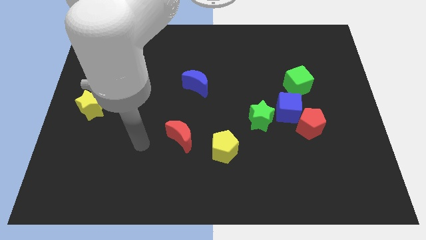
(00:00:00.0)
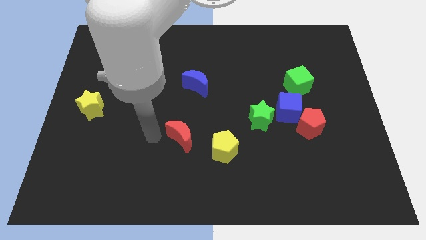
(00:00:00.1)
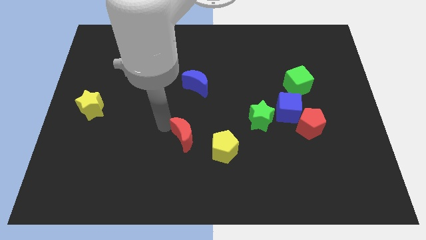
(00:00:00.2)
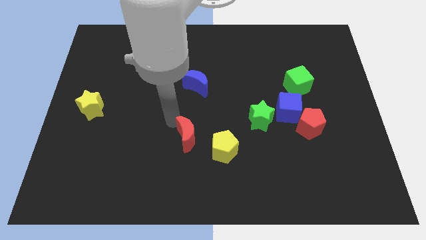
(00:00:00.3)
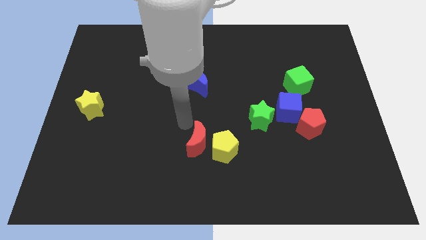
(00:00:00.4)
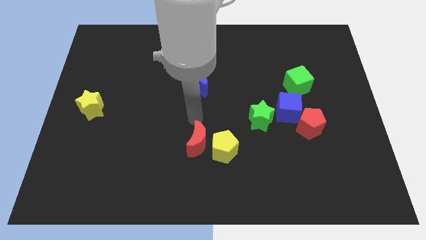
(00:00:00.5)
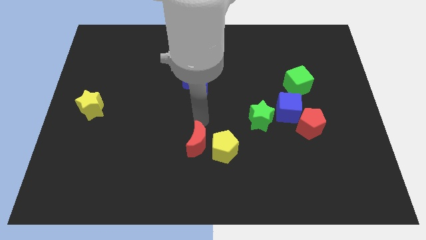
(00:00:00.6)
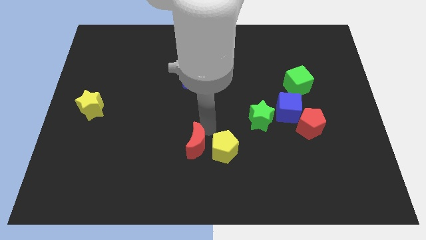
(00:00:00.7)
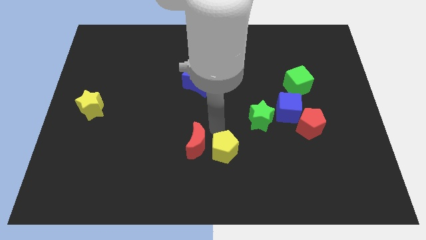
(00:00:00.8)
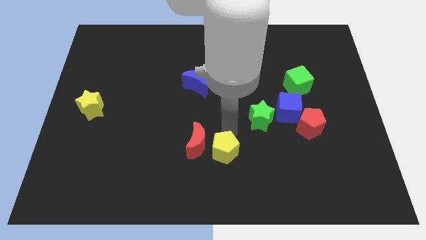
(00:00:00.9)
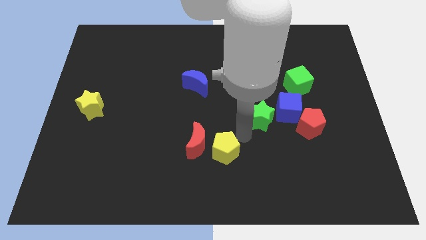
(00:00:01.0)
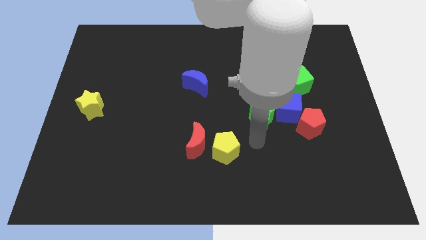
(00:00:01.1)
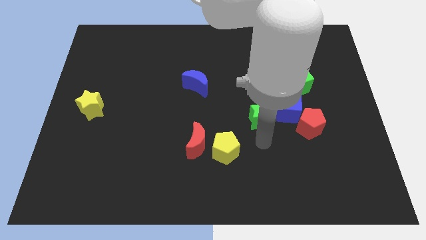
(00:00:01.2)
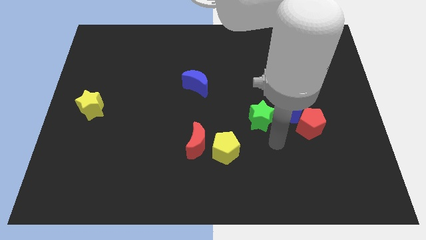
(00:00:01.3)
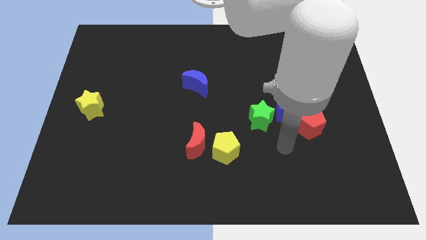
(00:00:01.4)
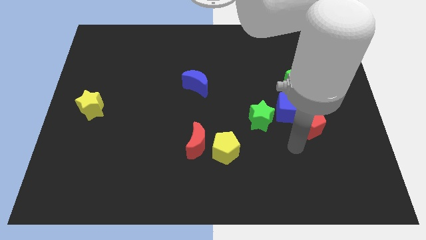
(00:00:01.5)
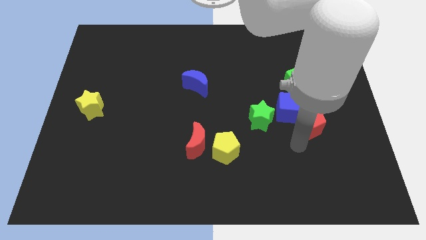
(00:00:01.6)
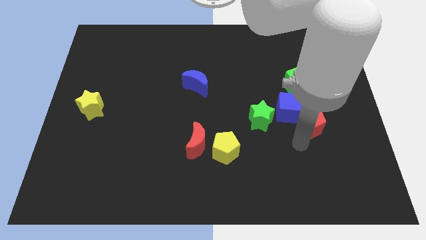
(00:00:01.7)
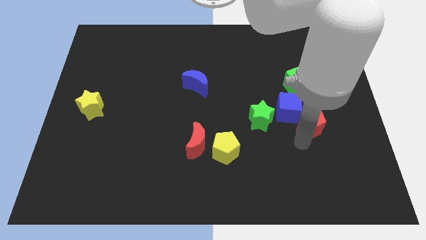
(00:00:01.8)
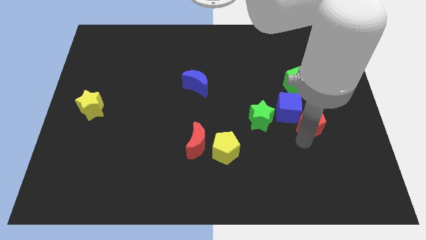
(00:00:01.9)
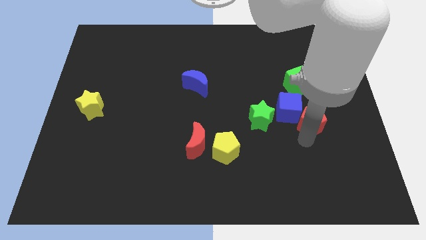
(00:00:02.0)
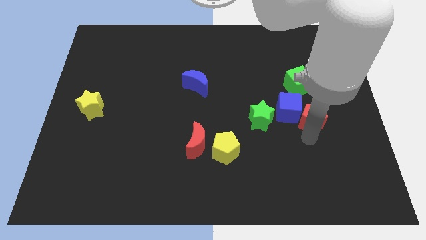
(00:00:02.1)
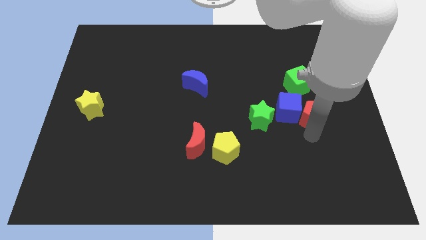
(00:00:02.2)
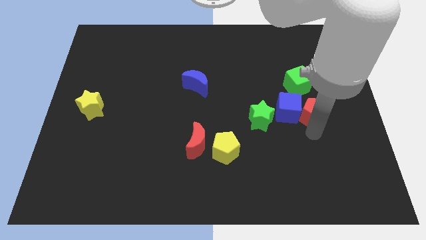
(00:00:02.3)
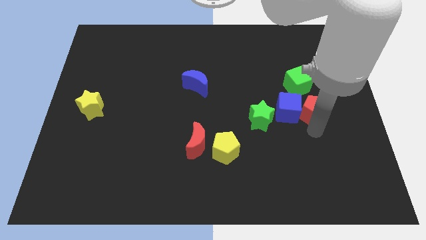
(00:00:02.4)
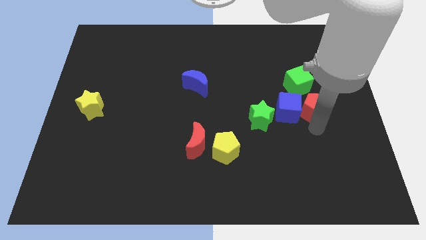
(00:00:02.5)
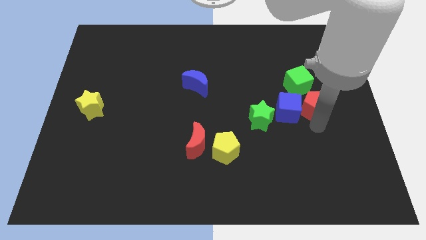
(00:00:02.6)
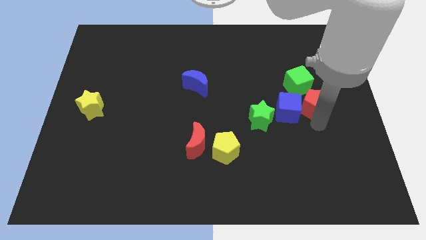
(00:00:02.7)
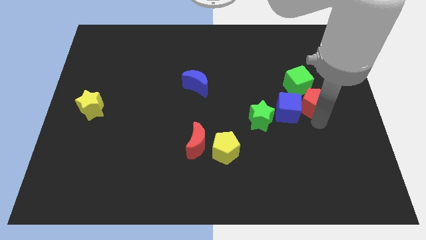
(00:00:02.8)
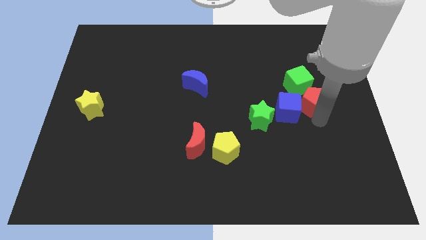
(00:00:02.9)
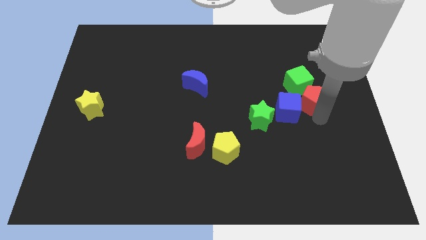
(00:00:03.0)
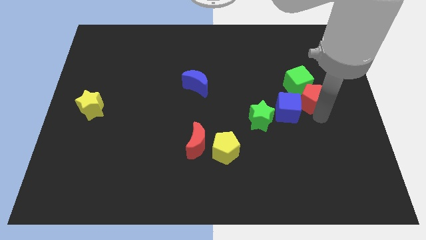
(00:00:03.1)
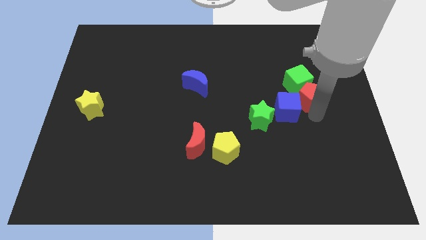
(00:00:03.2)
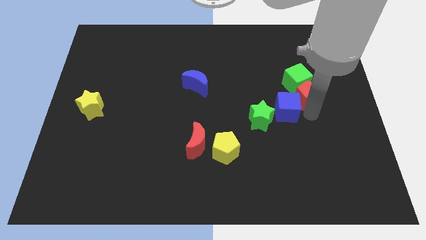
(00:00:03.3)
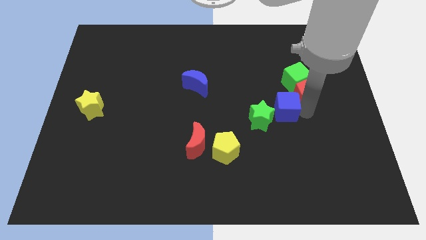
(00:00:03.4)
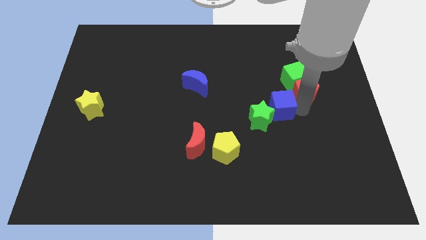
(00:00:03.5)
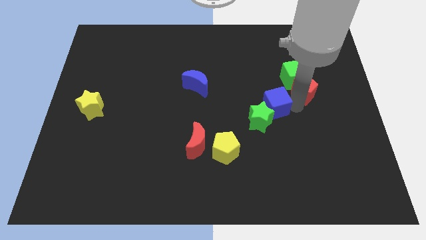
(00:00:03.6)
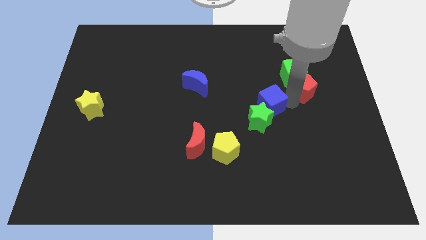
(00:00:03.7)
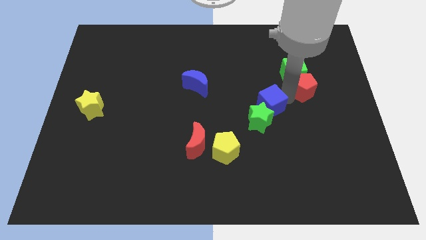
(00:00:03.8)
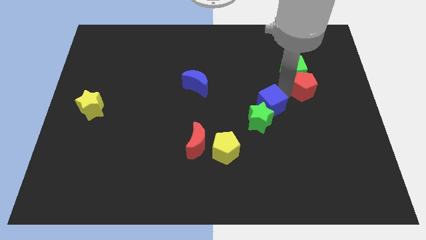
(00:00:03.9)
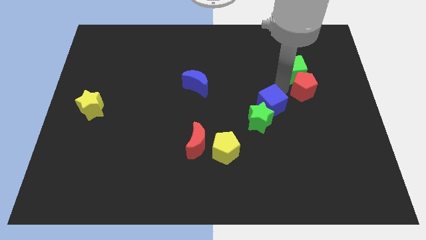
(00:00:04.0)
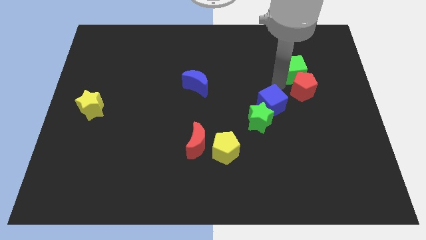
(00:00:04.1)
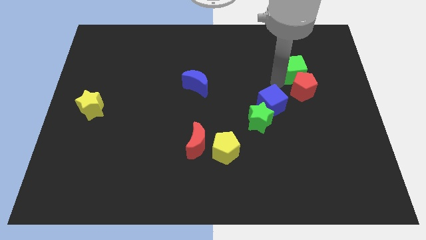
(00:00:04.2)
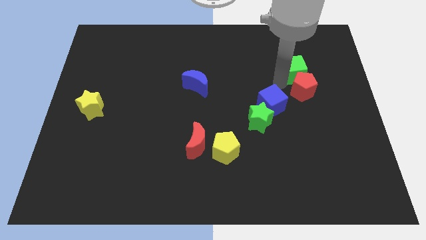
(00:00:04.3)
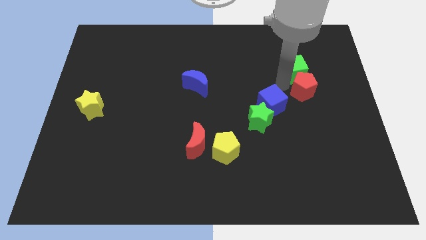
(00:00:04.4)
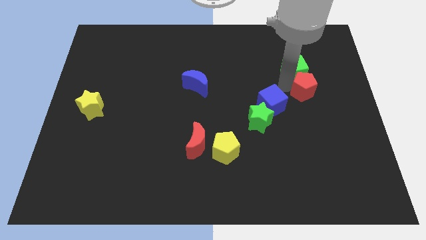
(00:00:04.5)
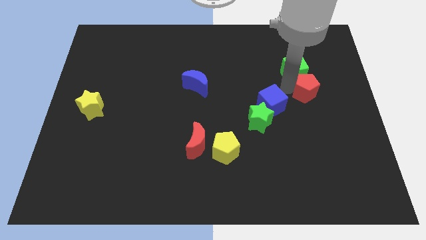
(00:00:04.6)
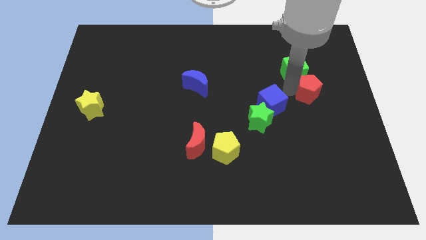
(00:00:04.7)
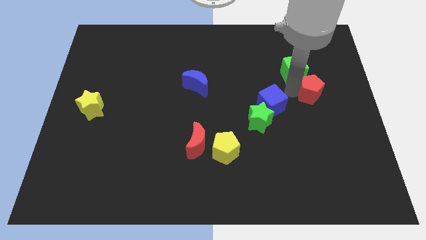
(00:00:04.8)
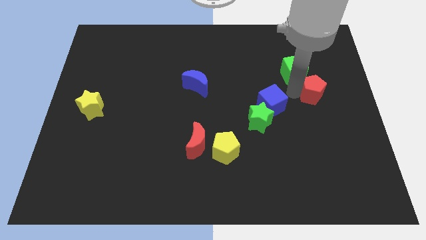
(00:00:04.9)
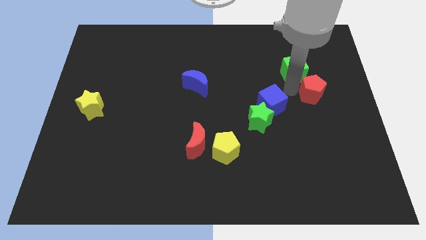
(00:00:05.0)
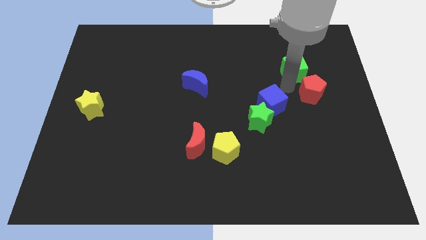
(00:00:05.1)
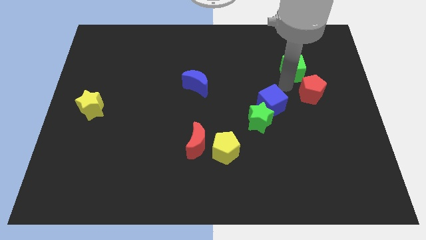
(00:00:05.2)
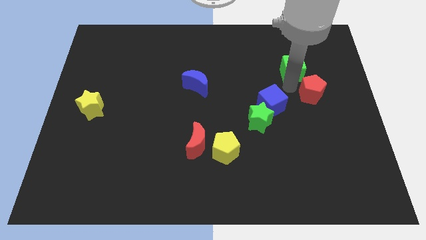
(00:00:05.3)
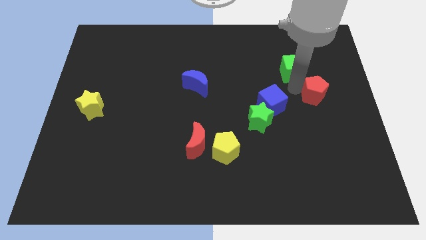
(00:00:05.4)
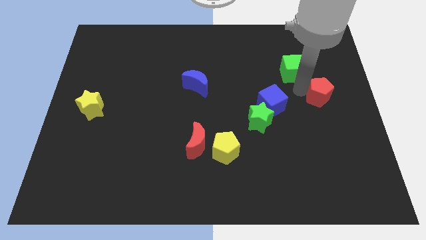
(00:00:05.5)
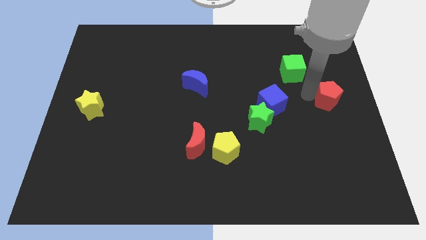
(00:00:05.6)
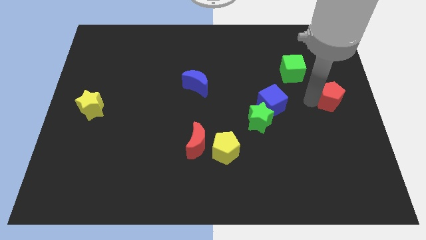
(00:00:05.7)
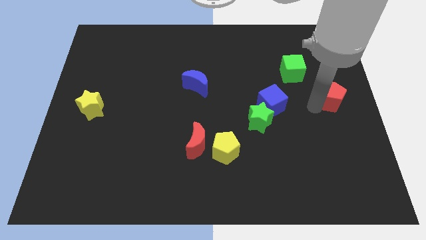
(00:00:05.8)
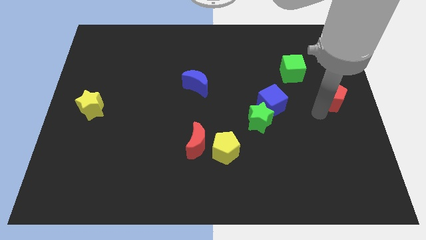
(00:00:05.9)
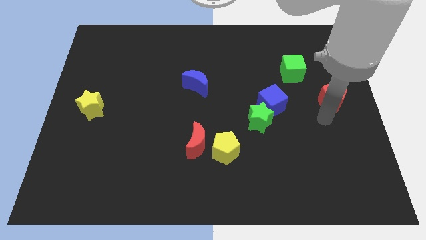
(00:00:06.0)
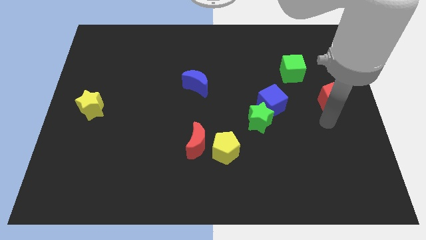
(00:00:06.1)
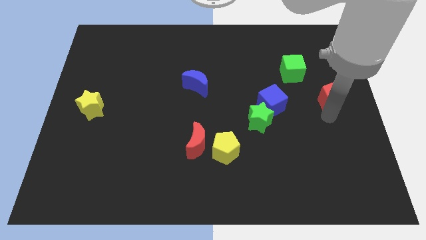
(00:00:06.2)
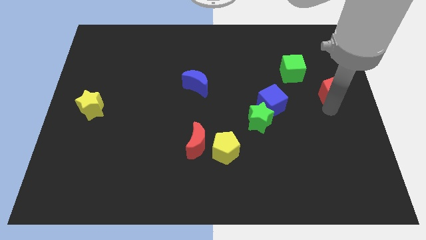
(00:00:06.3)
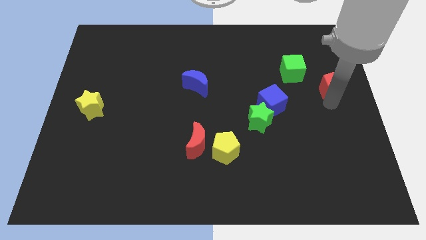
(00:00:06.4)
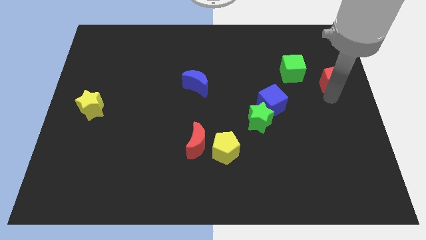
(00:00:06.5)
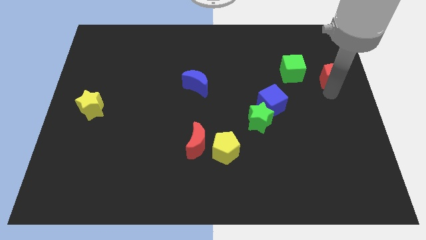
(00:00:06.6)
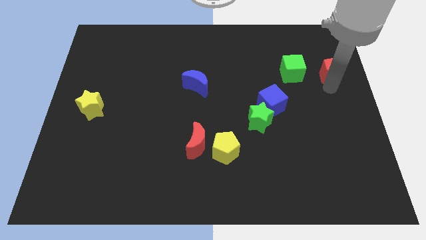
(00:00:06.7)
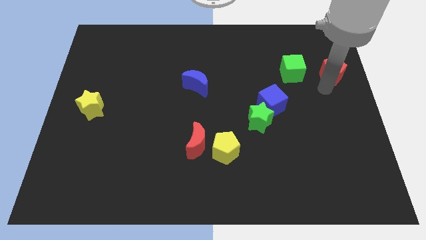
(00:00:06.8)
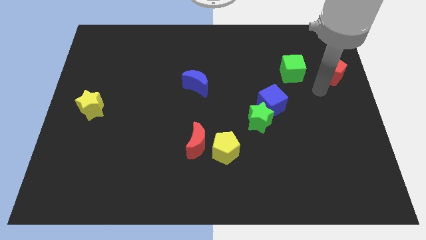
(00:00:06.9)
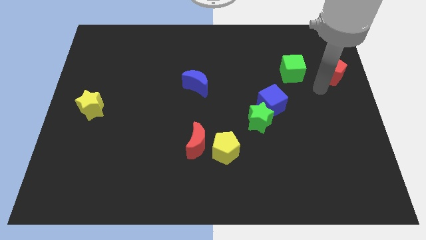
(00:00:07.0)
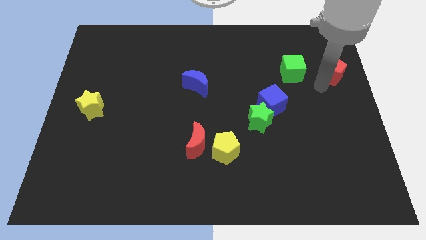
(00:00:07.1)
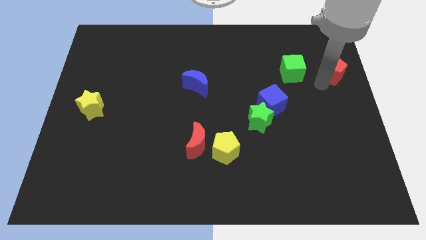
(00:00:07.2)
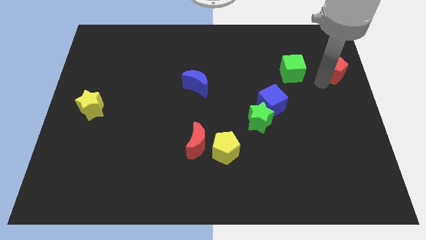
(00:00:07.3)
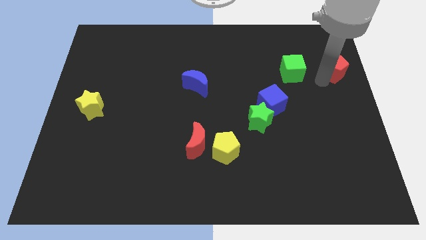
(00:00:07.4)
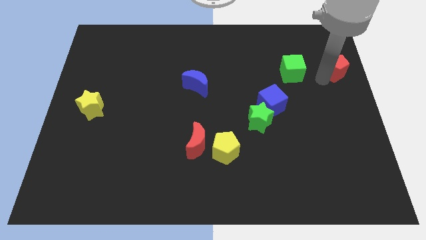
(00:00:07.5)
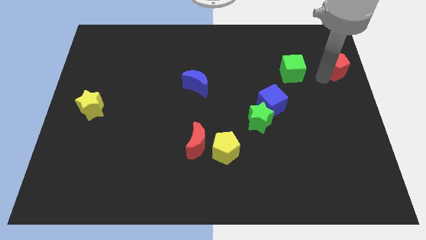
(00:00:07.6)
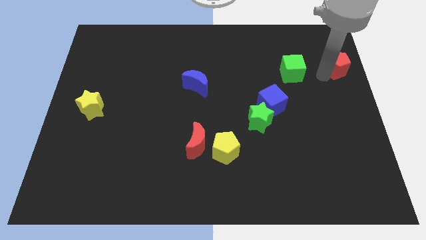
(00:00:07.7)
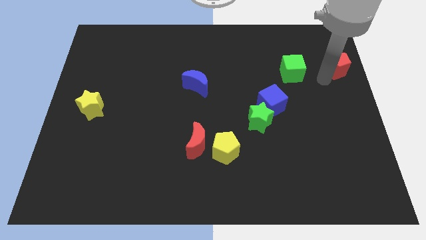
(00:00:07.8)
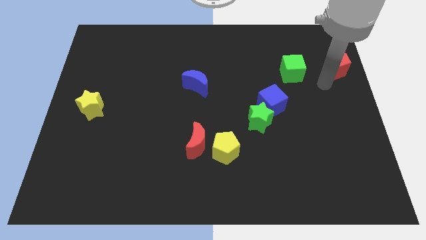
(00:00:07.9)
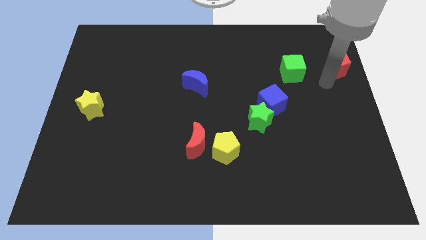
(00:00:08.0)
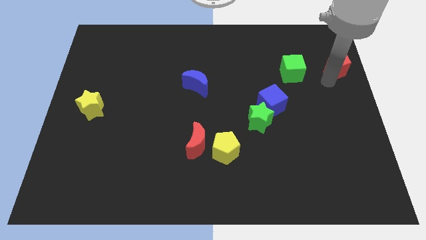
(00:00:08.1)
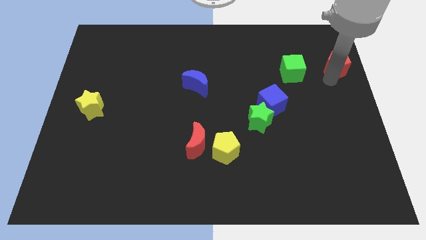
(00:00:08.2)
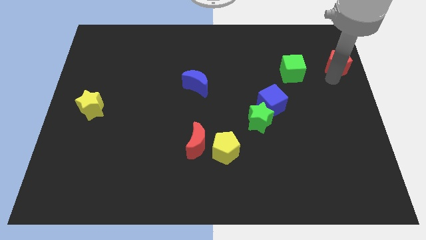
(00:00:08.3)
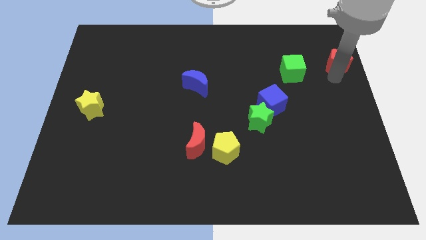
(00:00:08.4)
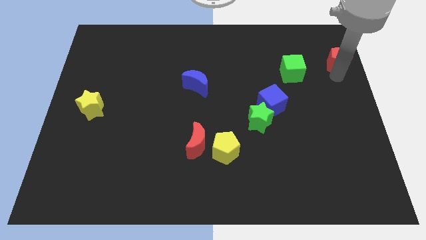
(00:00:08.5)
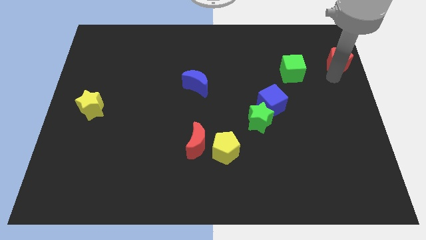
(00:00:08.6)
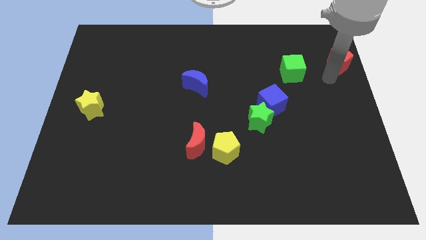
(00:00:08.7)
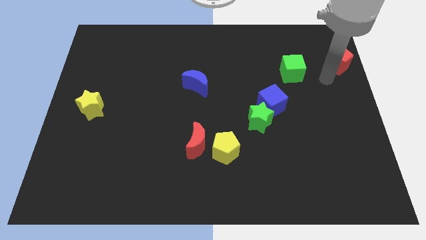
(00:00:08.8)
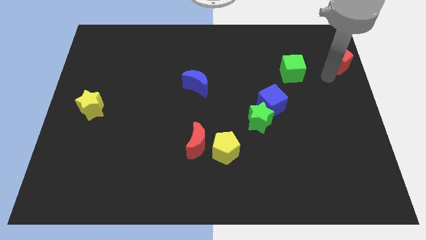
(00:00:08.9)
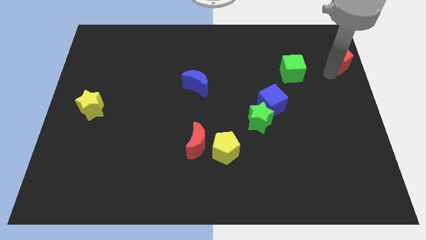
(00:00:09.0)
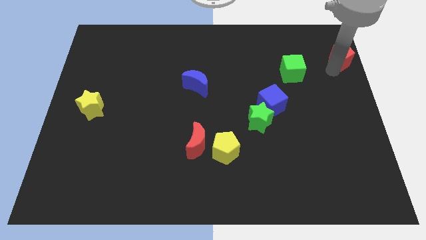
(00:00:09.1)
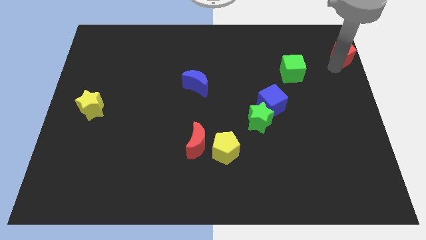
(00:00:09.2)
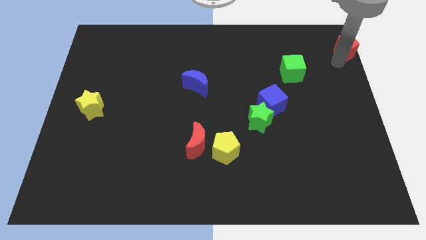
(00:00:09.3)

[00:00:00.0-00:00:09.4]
push the red pentagon to the top right of the board
